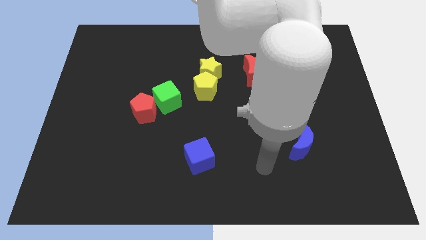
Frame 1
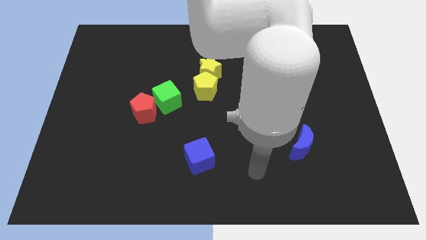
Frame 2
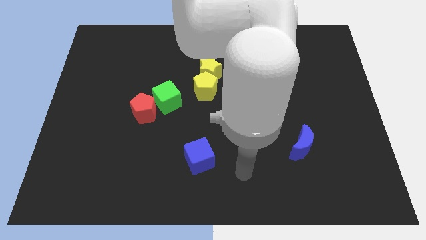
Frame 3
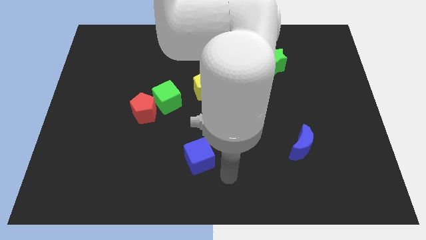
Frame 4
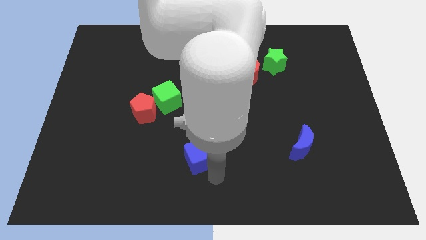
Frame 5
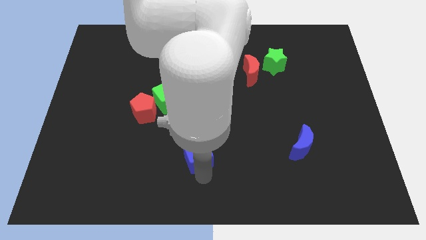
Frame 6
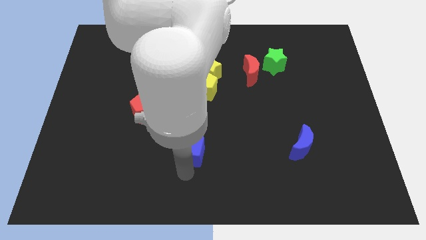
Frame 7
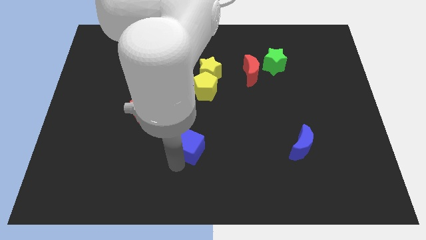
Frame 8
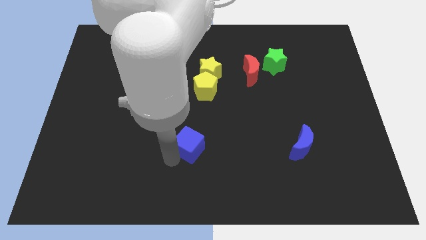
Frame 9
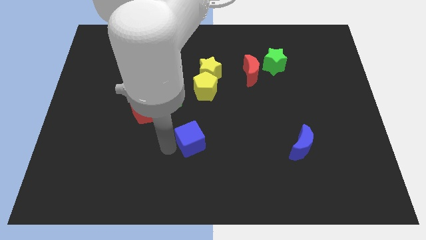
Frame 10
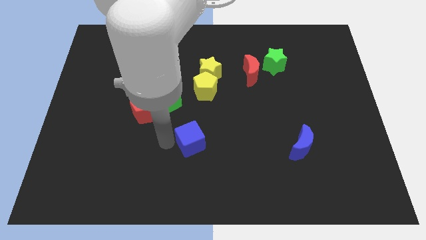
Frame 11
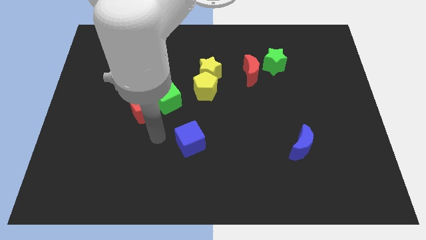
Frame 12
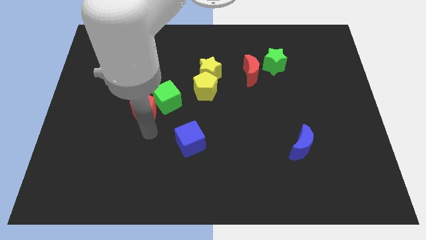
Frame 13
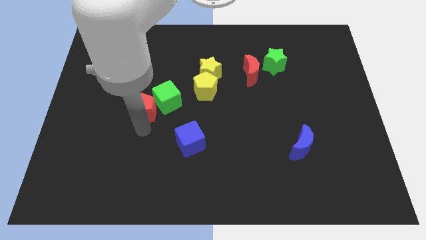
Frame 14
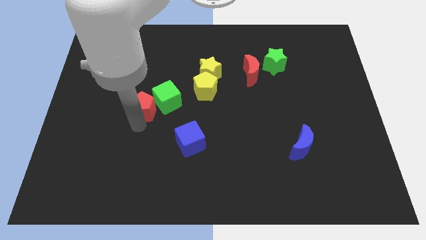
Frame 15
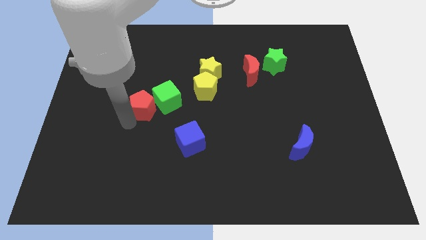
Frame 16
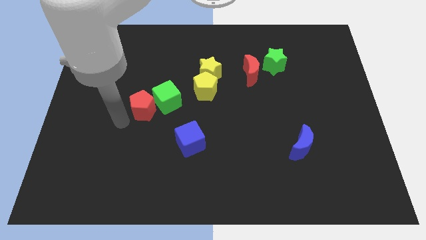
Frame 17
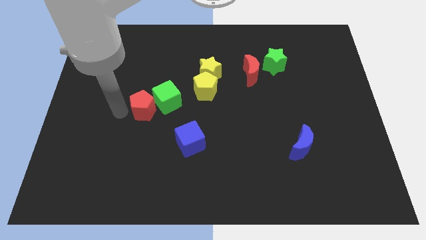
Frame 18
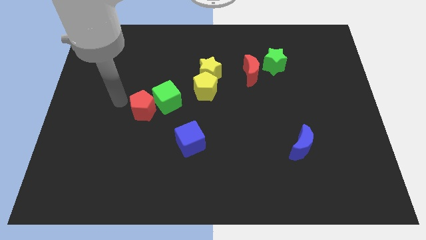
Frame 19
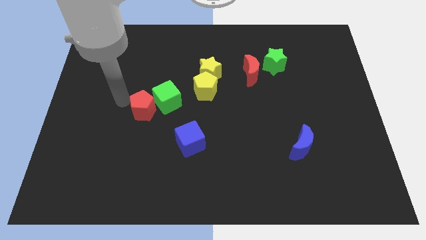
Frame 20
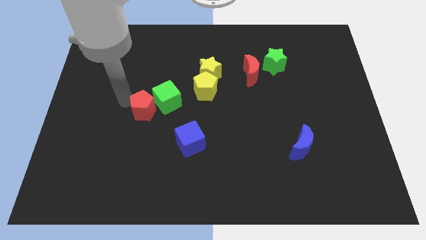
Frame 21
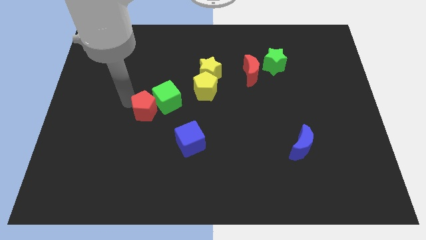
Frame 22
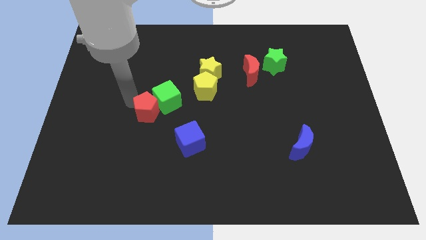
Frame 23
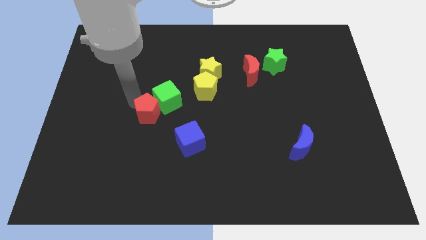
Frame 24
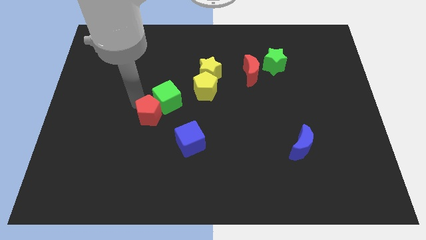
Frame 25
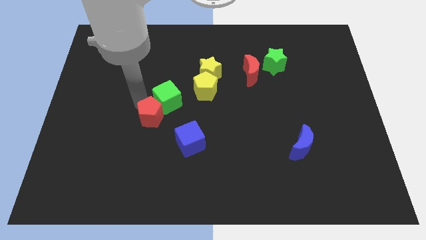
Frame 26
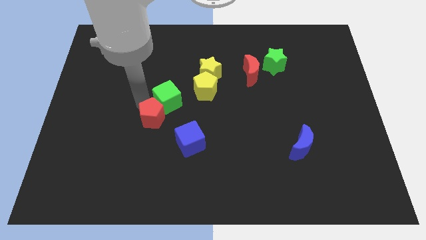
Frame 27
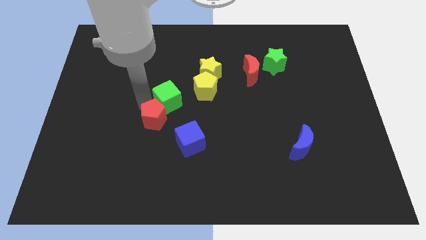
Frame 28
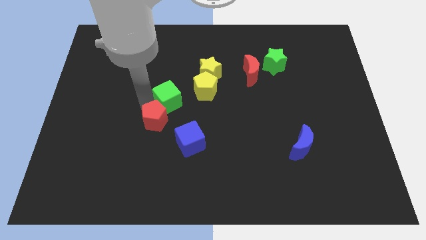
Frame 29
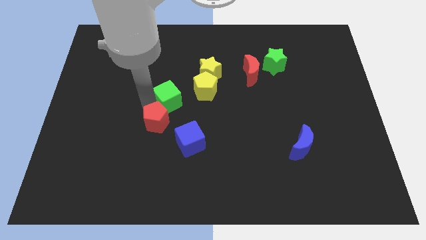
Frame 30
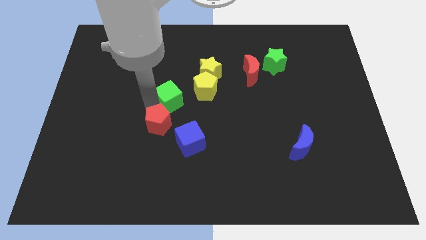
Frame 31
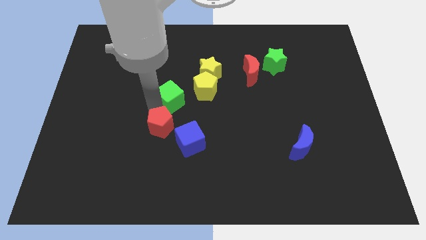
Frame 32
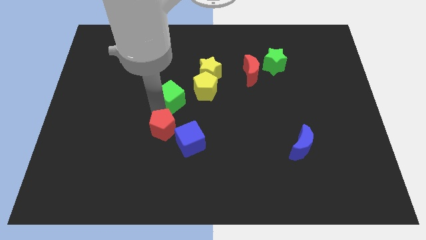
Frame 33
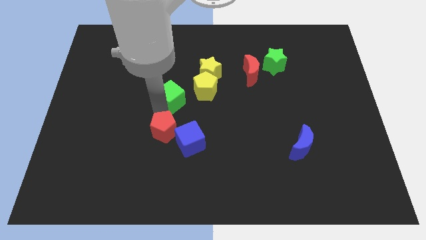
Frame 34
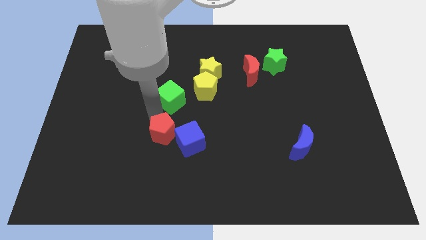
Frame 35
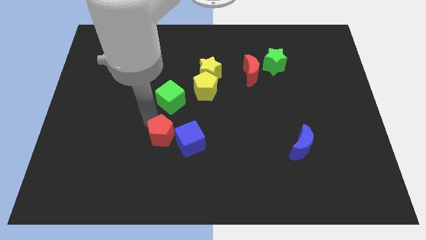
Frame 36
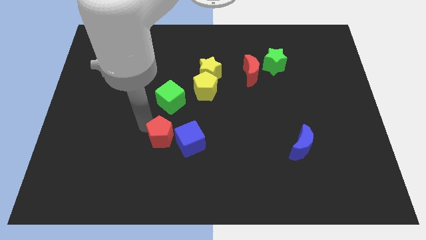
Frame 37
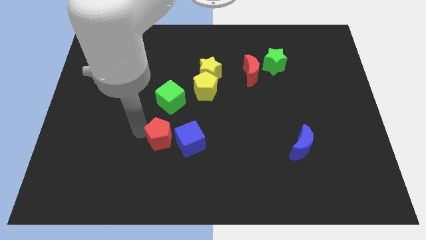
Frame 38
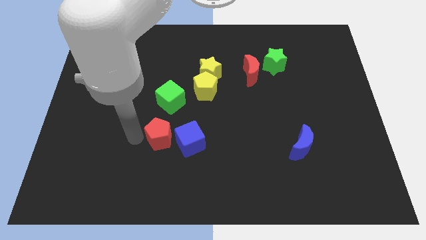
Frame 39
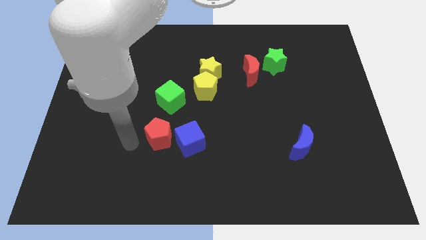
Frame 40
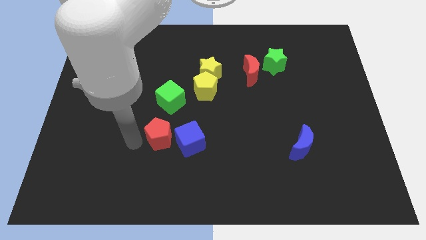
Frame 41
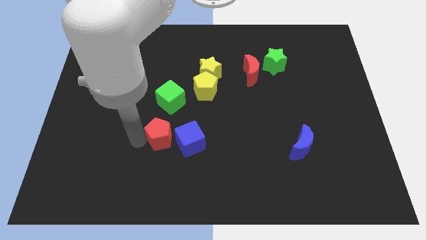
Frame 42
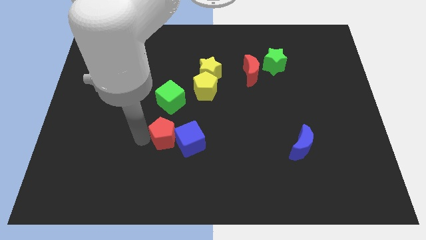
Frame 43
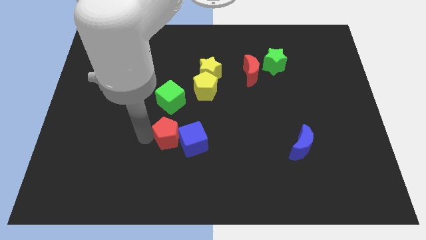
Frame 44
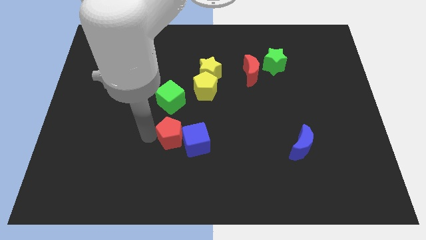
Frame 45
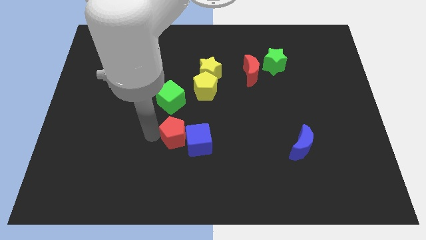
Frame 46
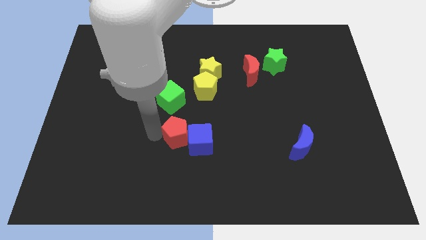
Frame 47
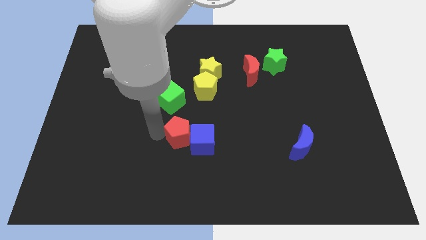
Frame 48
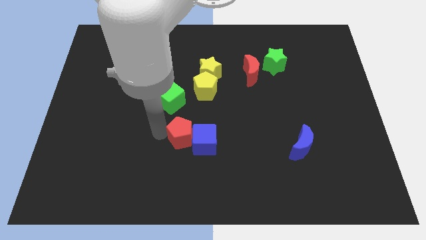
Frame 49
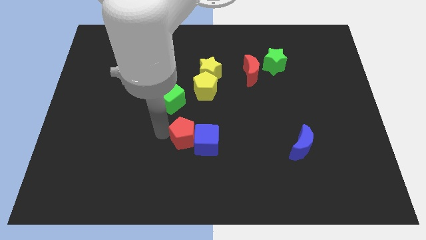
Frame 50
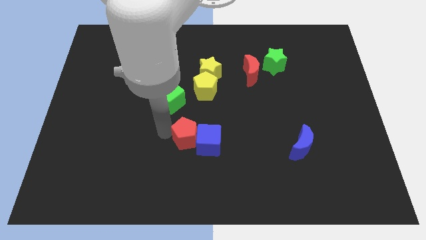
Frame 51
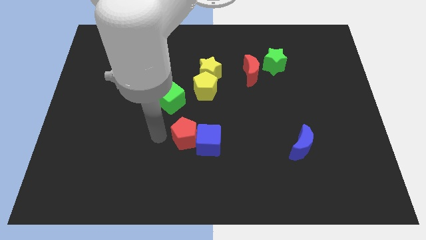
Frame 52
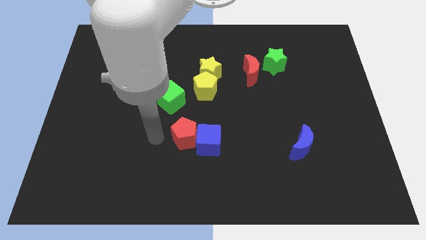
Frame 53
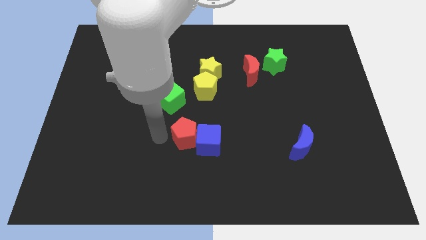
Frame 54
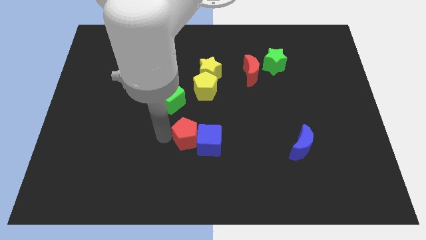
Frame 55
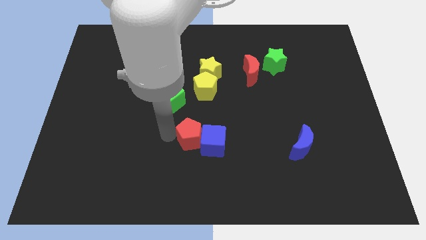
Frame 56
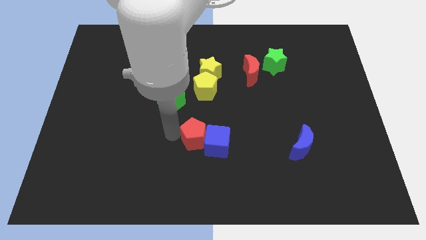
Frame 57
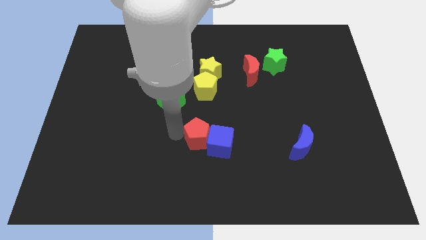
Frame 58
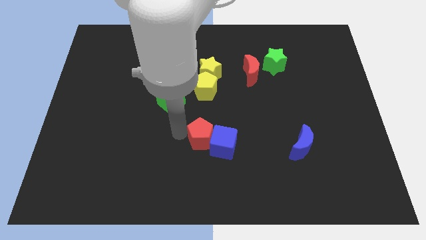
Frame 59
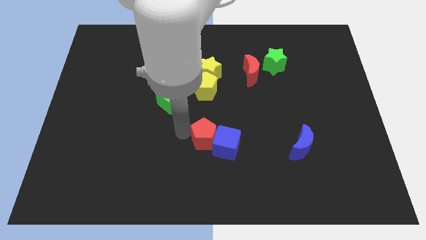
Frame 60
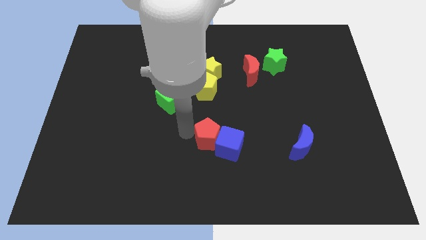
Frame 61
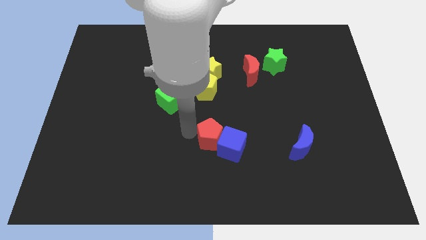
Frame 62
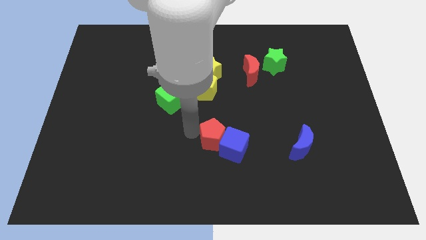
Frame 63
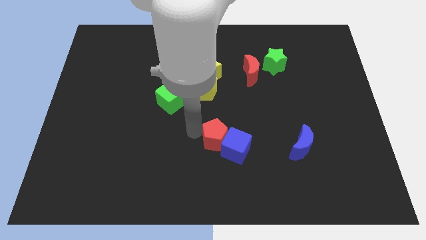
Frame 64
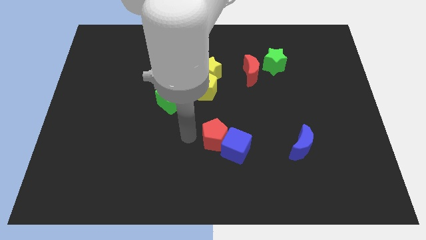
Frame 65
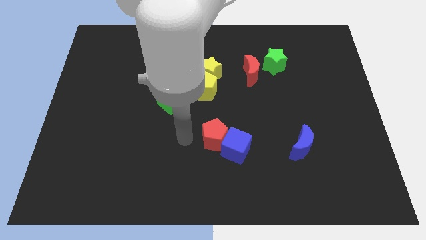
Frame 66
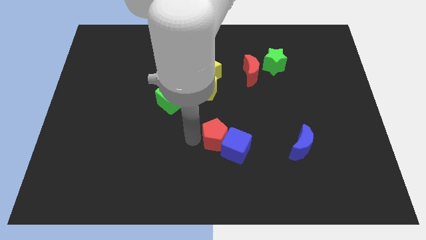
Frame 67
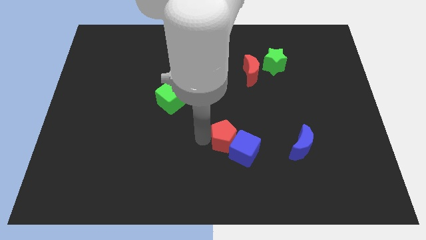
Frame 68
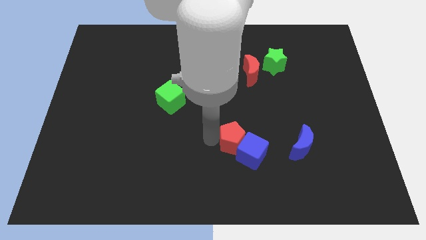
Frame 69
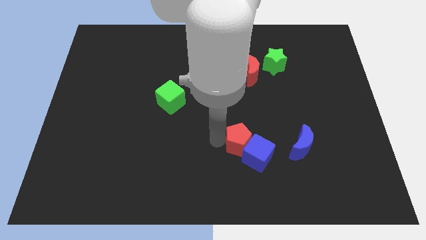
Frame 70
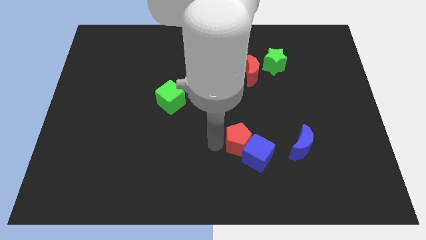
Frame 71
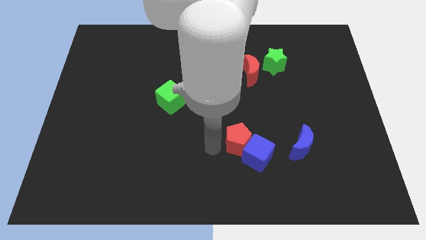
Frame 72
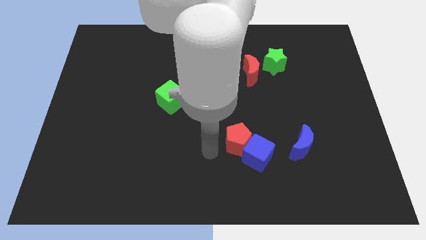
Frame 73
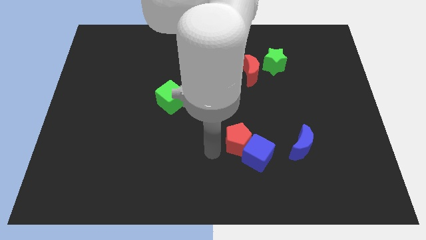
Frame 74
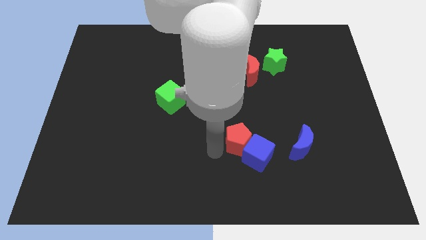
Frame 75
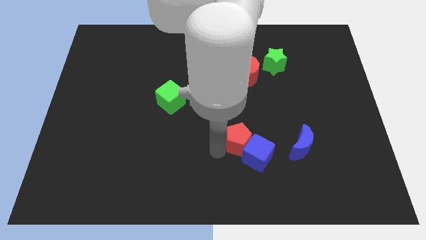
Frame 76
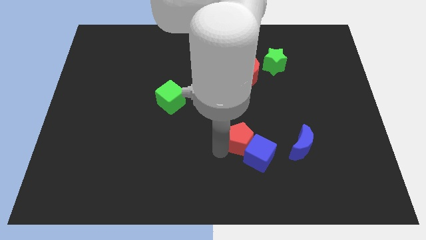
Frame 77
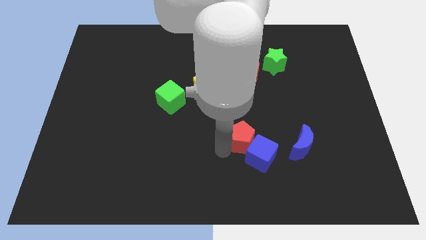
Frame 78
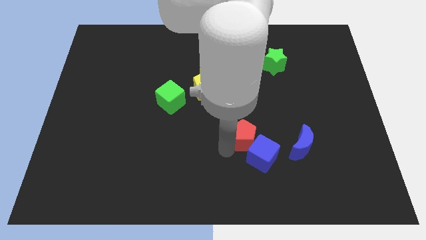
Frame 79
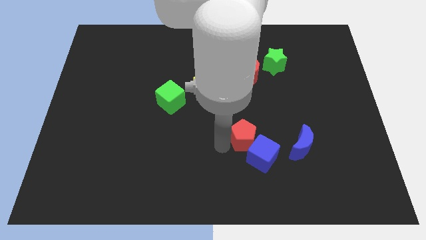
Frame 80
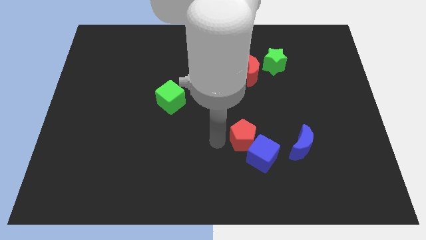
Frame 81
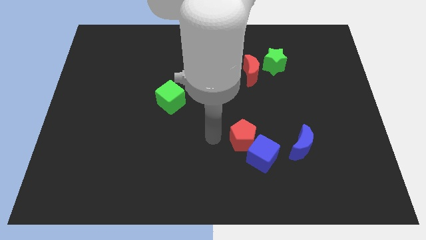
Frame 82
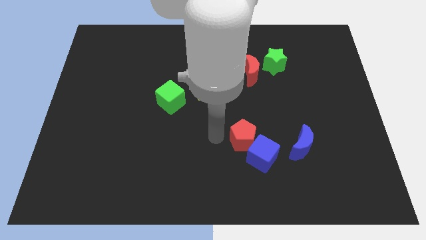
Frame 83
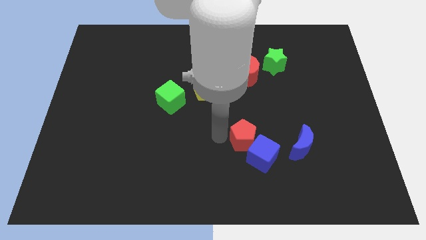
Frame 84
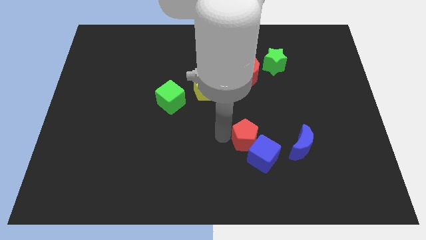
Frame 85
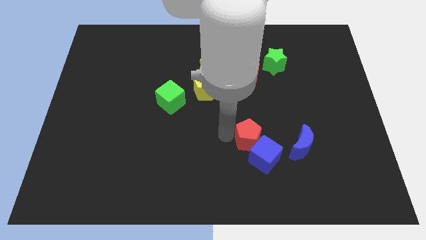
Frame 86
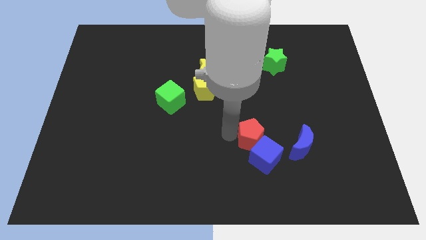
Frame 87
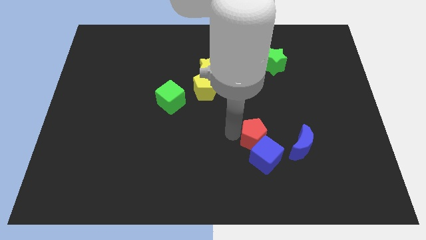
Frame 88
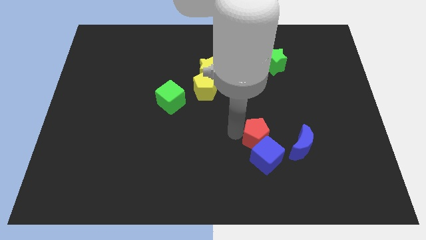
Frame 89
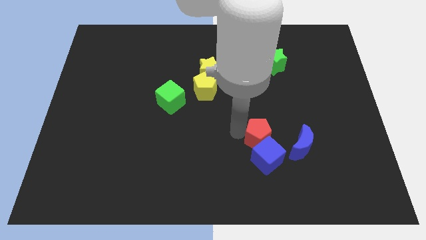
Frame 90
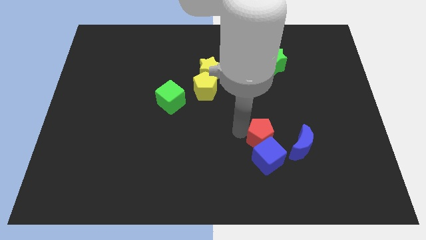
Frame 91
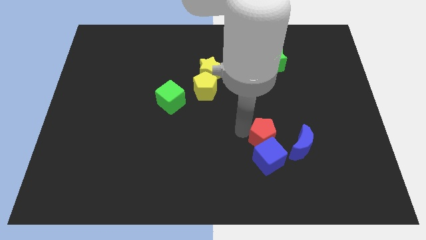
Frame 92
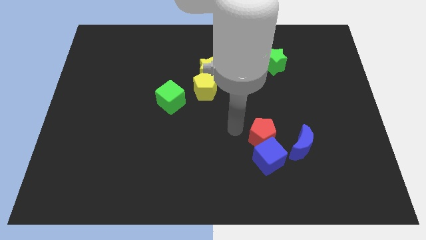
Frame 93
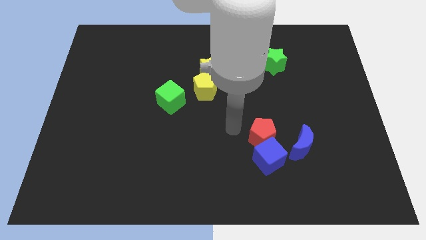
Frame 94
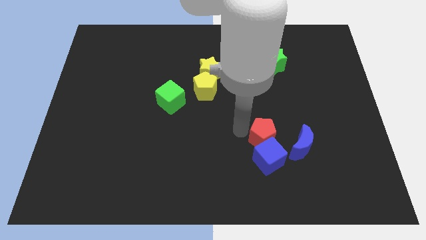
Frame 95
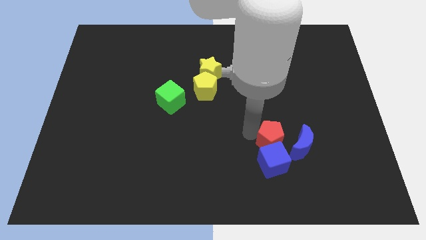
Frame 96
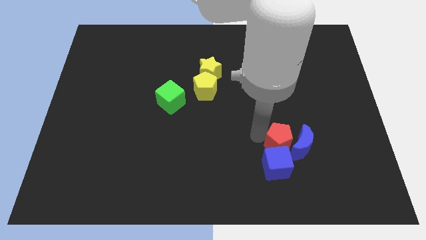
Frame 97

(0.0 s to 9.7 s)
slide the red pentagon to the blue moon
